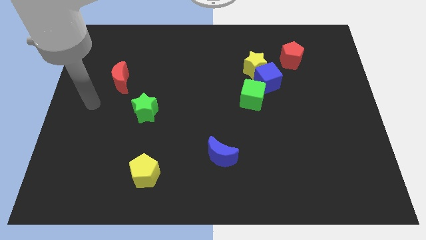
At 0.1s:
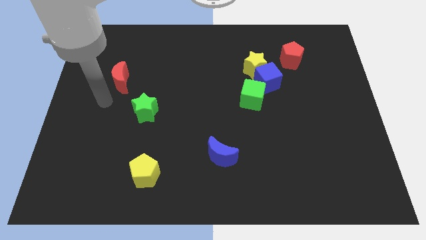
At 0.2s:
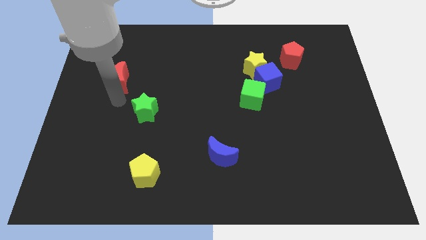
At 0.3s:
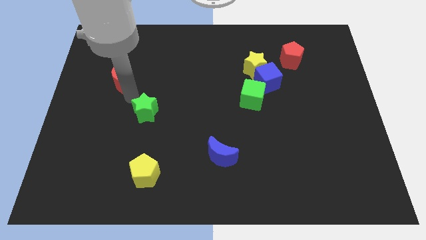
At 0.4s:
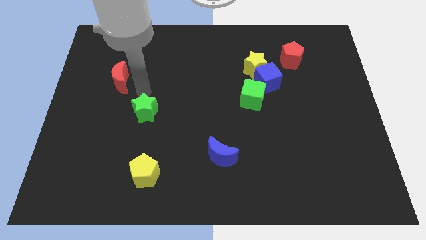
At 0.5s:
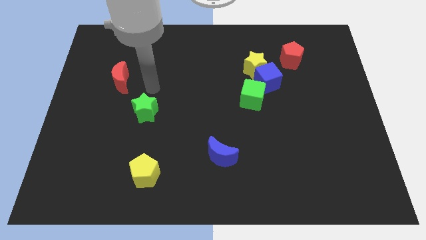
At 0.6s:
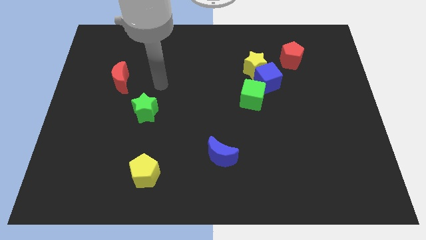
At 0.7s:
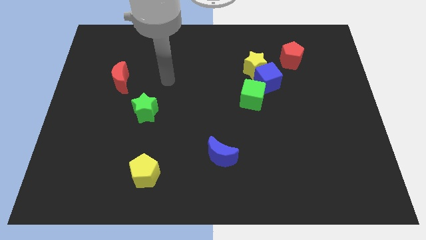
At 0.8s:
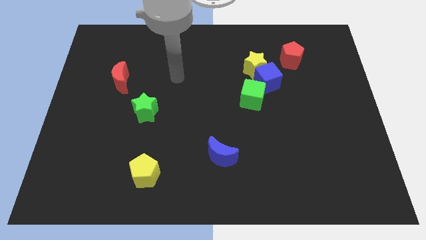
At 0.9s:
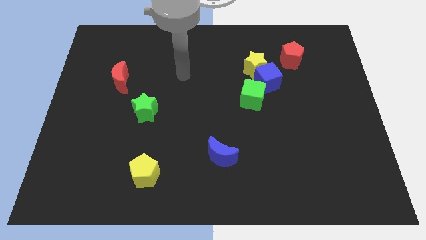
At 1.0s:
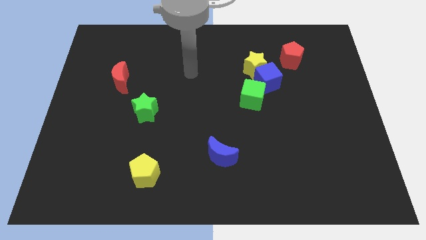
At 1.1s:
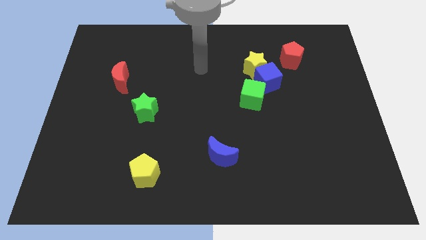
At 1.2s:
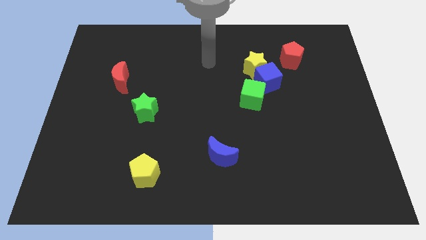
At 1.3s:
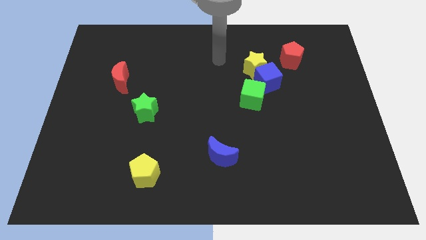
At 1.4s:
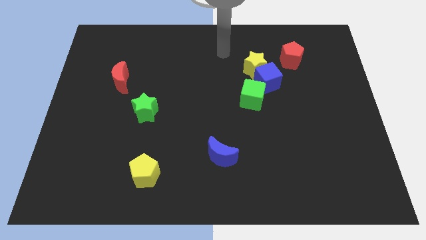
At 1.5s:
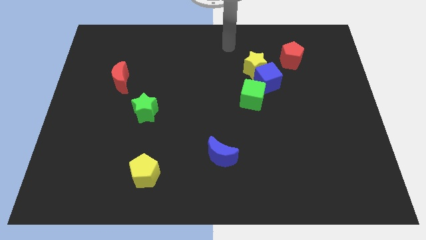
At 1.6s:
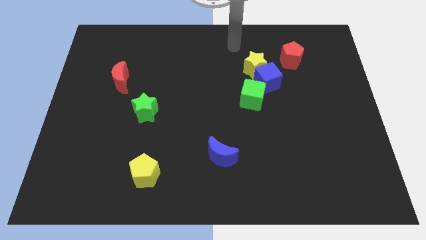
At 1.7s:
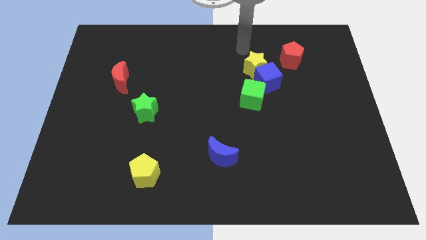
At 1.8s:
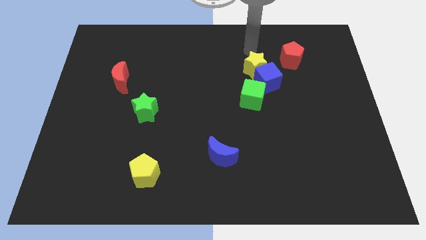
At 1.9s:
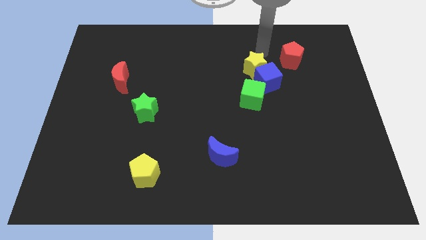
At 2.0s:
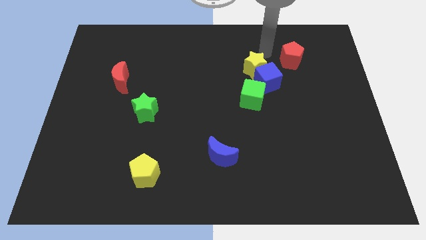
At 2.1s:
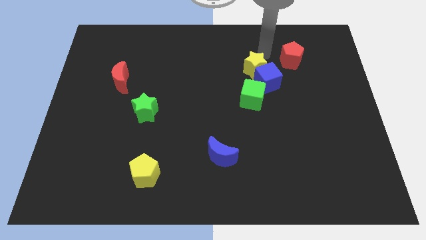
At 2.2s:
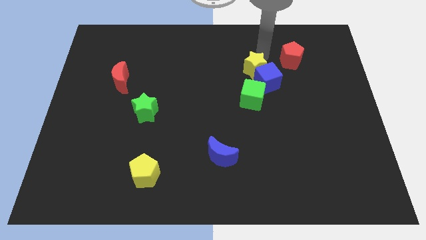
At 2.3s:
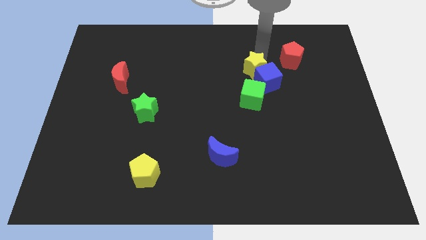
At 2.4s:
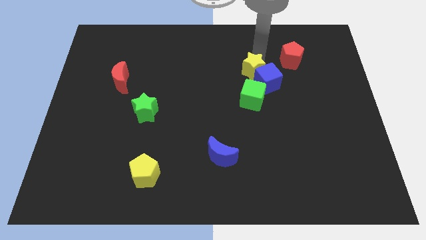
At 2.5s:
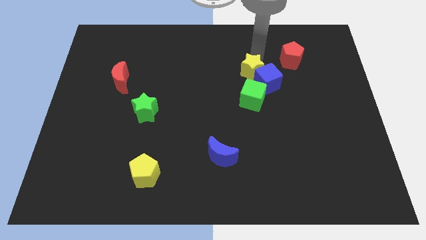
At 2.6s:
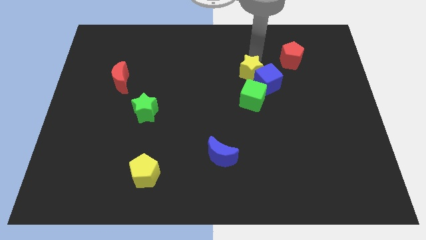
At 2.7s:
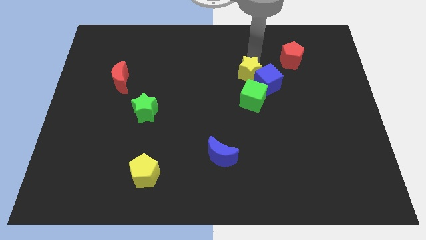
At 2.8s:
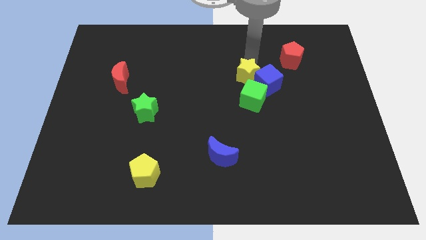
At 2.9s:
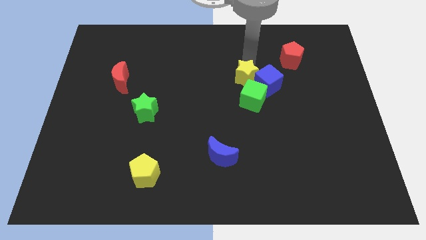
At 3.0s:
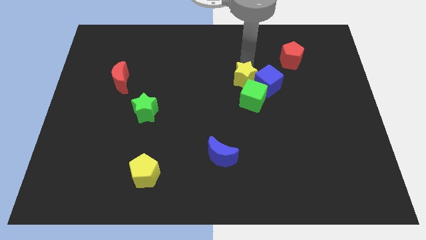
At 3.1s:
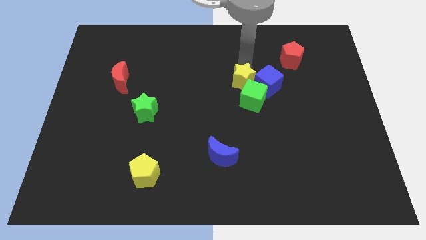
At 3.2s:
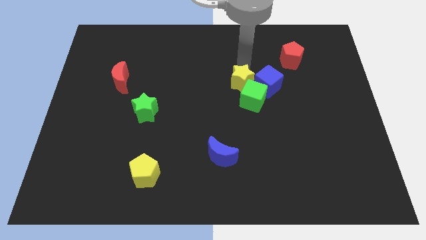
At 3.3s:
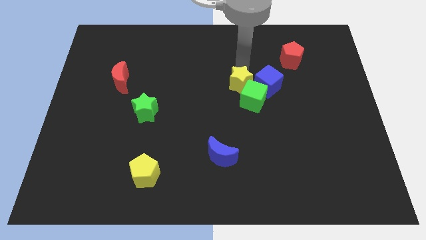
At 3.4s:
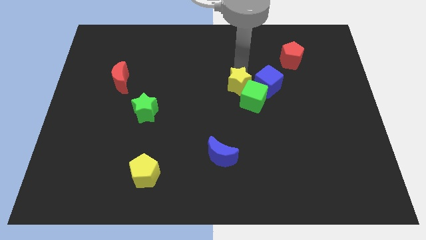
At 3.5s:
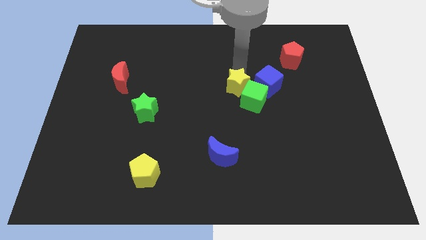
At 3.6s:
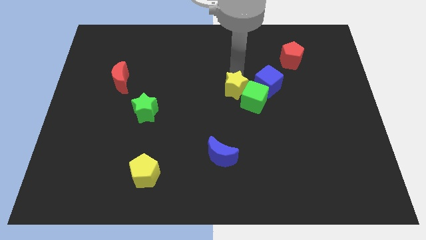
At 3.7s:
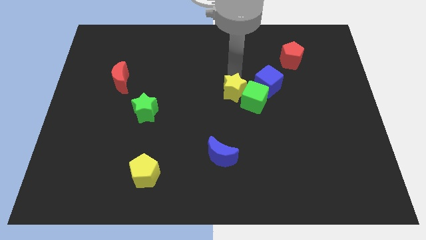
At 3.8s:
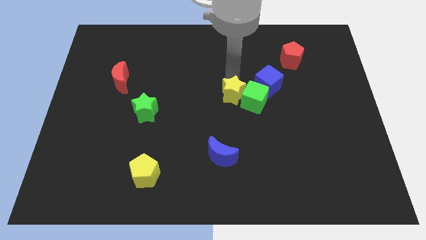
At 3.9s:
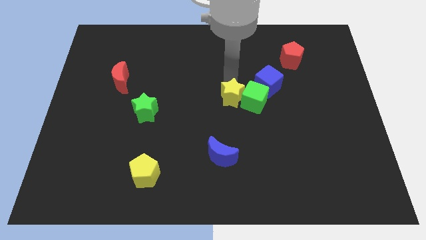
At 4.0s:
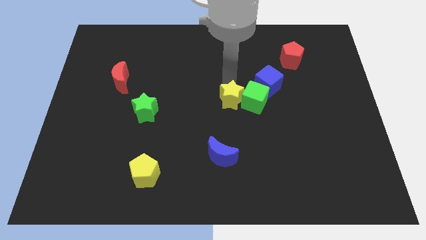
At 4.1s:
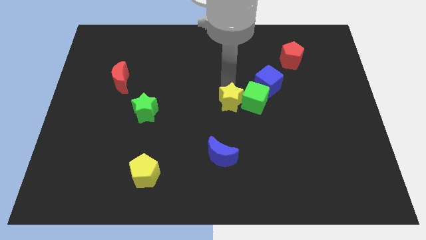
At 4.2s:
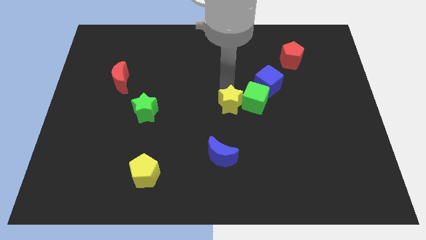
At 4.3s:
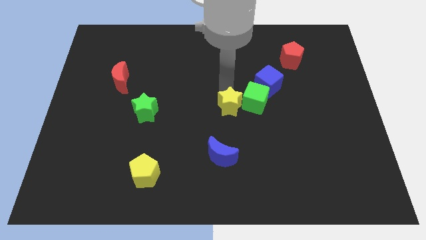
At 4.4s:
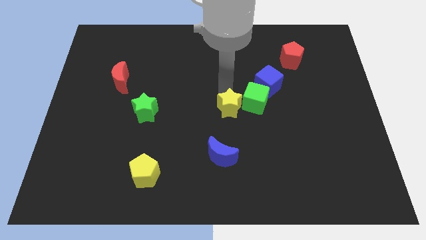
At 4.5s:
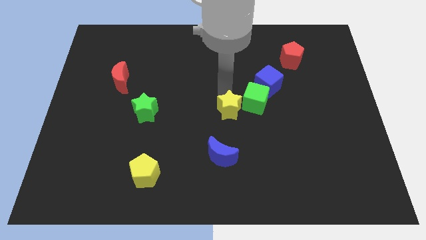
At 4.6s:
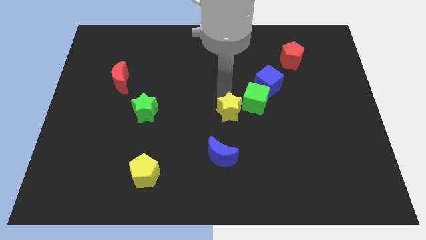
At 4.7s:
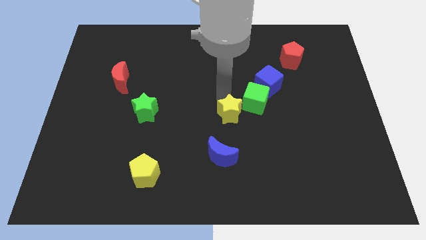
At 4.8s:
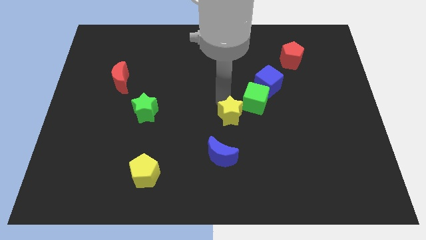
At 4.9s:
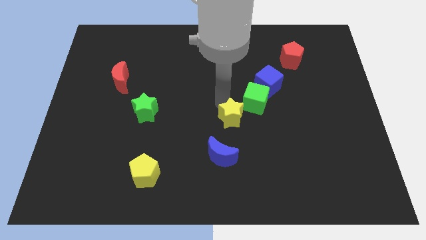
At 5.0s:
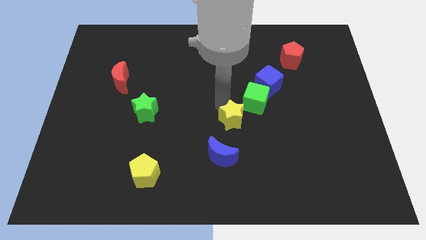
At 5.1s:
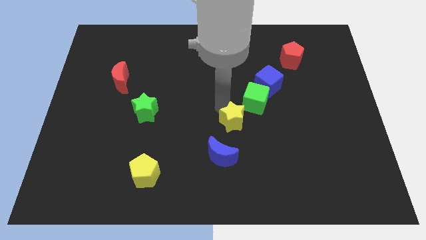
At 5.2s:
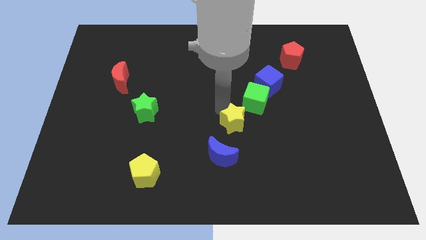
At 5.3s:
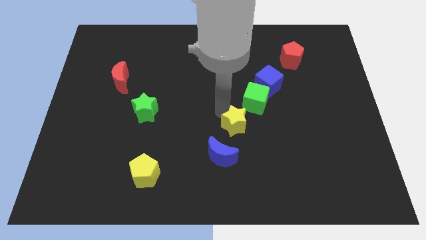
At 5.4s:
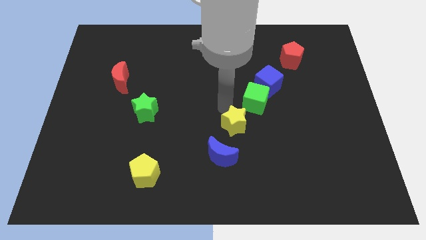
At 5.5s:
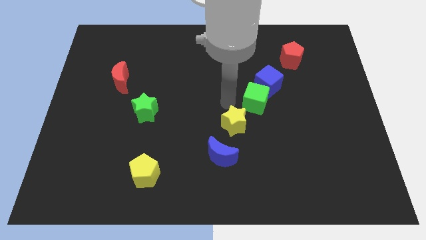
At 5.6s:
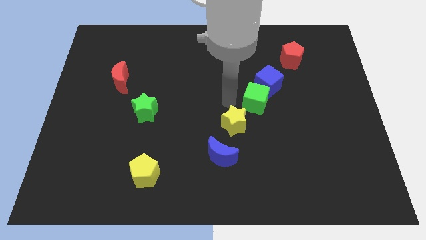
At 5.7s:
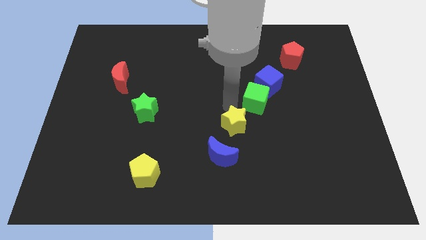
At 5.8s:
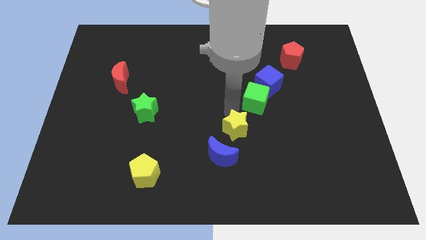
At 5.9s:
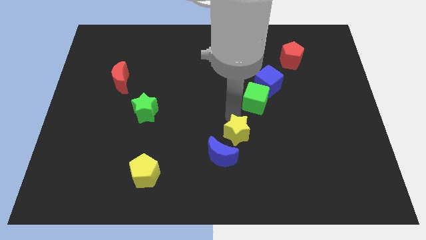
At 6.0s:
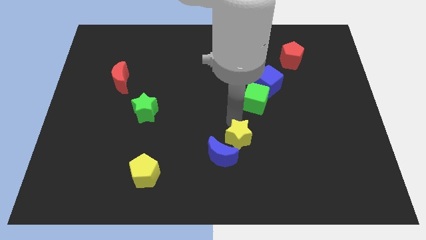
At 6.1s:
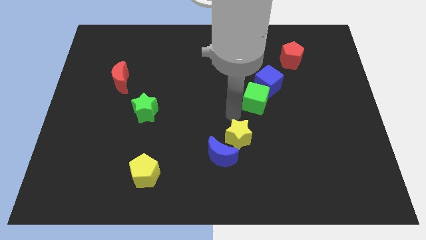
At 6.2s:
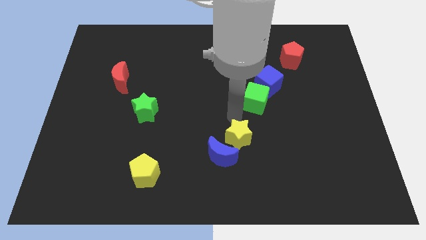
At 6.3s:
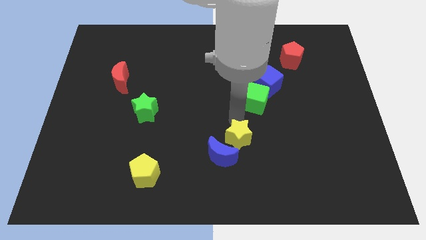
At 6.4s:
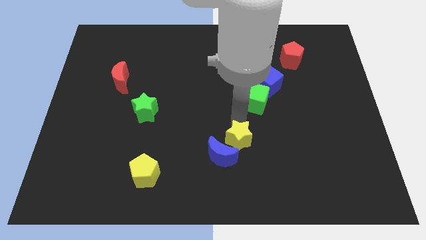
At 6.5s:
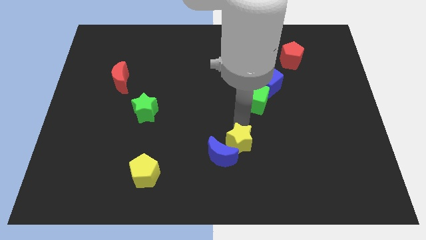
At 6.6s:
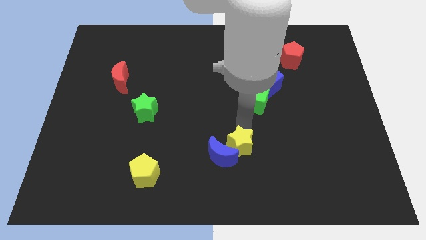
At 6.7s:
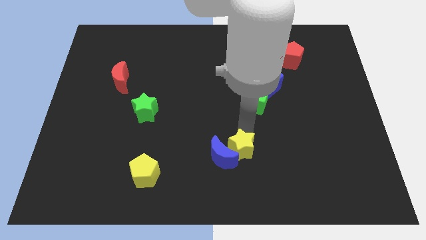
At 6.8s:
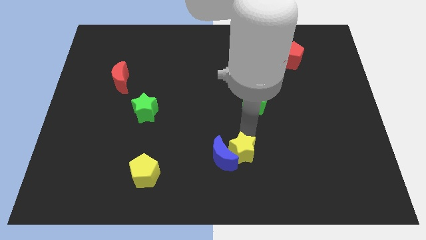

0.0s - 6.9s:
slide the yellow star to the bottom right side of the blue moon
